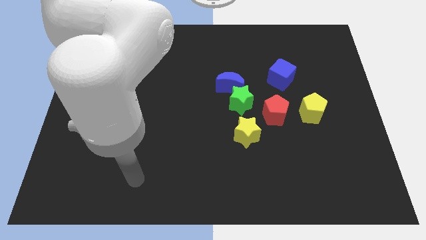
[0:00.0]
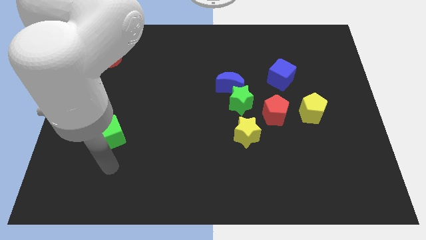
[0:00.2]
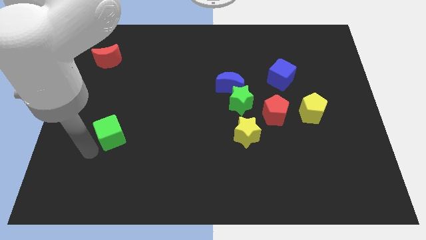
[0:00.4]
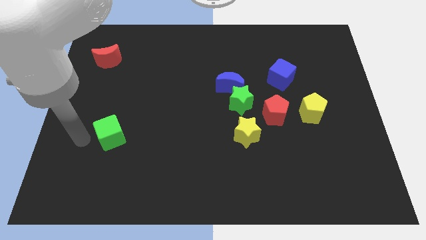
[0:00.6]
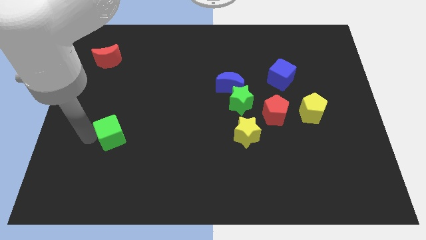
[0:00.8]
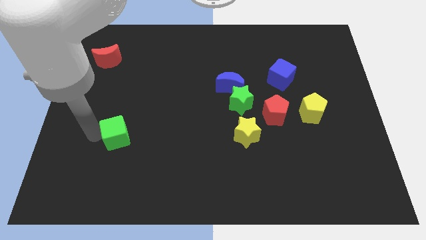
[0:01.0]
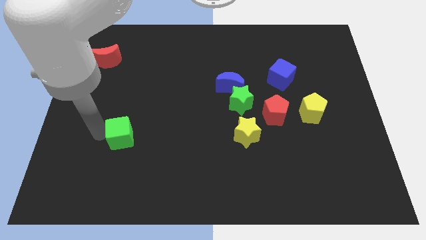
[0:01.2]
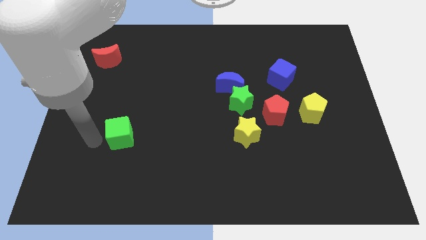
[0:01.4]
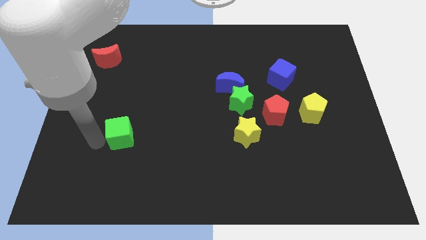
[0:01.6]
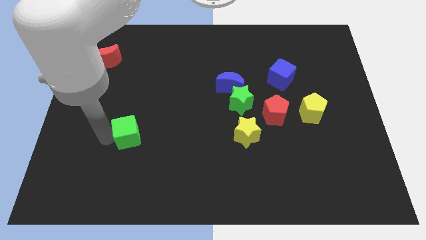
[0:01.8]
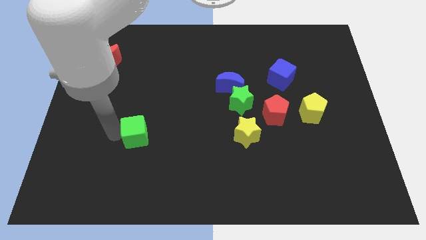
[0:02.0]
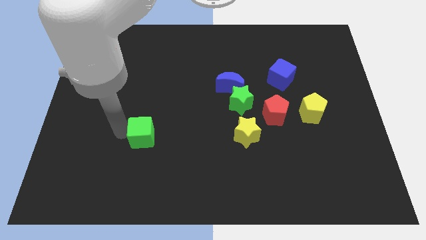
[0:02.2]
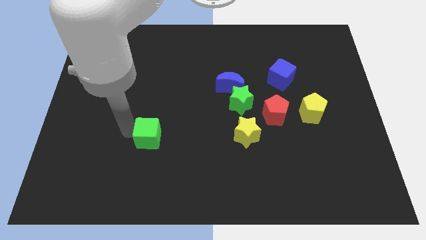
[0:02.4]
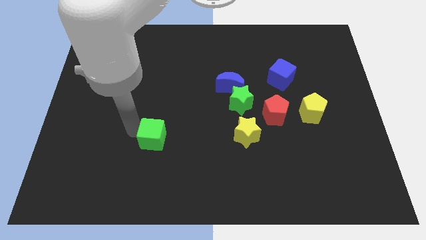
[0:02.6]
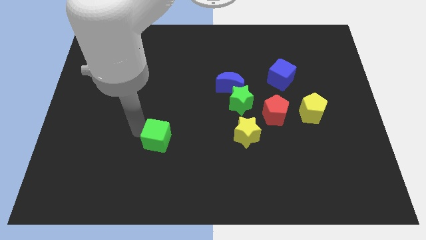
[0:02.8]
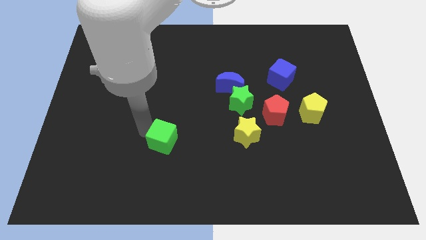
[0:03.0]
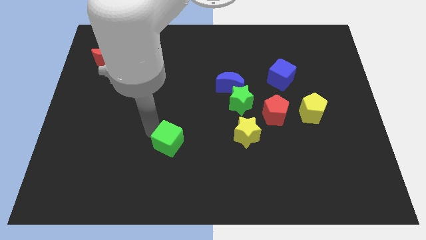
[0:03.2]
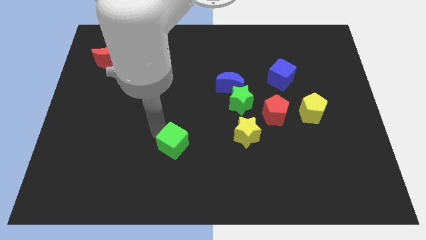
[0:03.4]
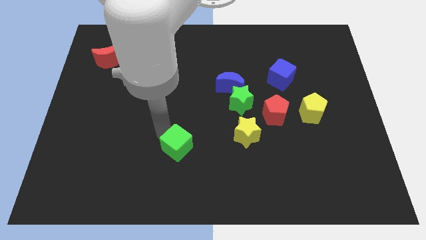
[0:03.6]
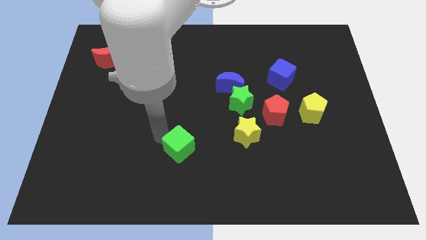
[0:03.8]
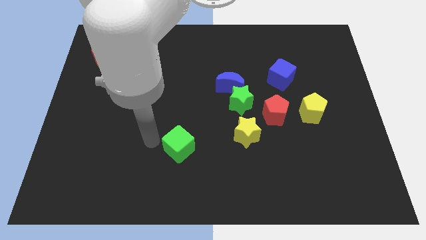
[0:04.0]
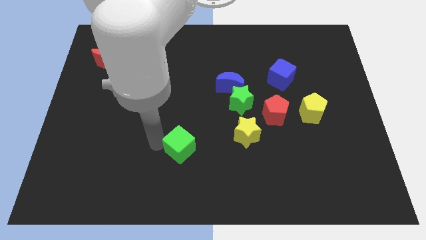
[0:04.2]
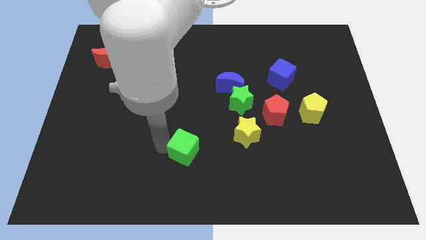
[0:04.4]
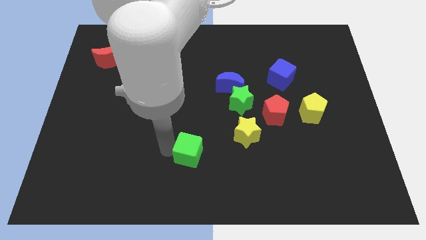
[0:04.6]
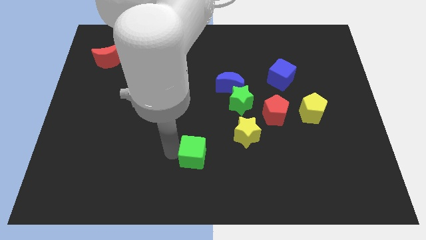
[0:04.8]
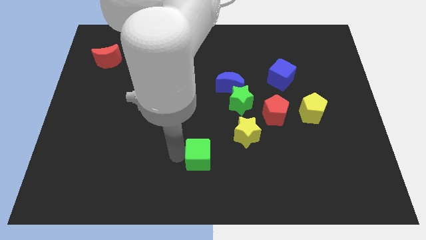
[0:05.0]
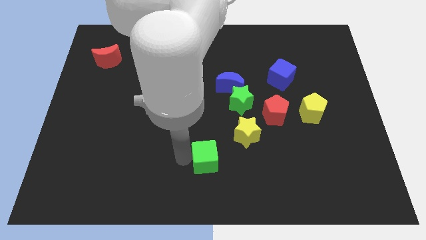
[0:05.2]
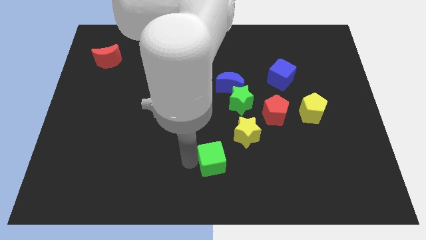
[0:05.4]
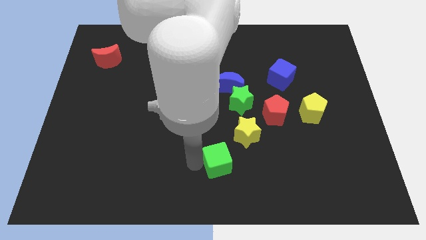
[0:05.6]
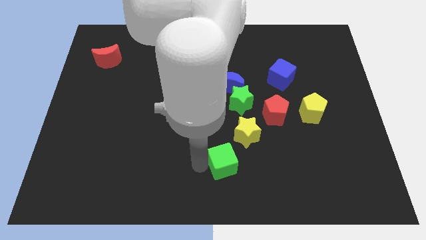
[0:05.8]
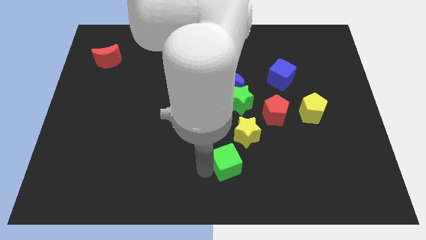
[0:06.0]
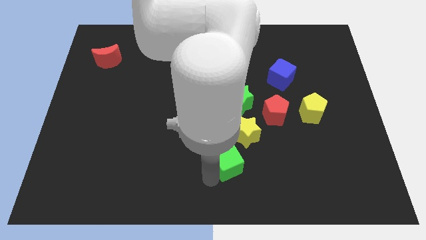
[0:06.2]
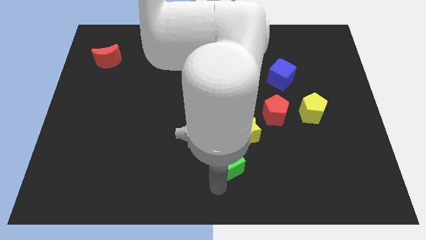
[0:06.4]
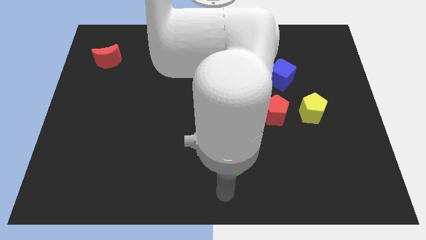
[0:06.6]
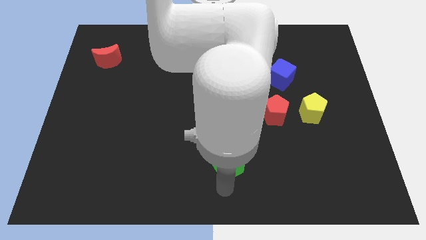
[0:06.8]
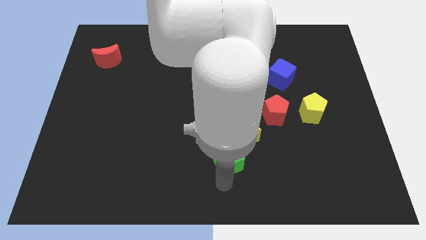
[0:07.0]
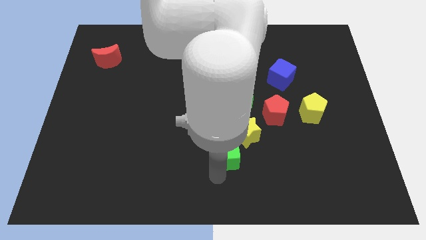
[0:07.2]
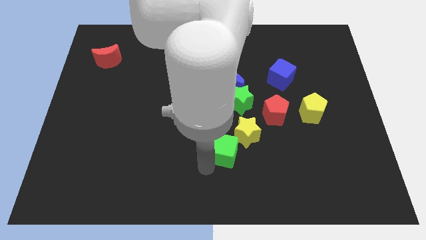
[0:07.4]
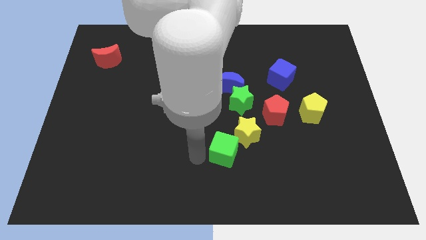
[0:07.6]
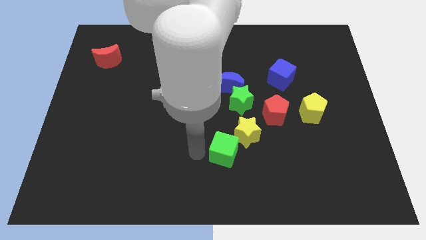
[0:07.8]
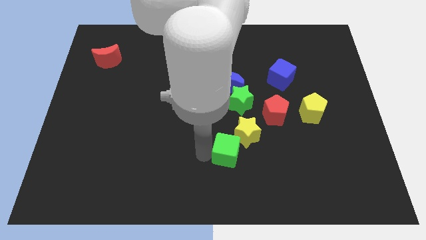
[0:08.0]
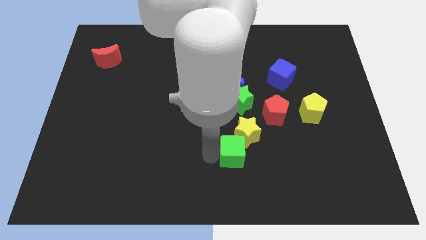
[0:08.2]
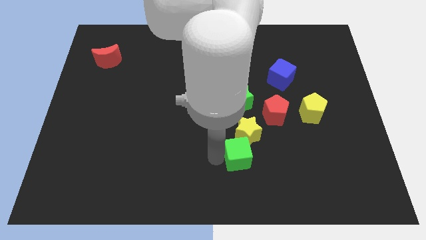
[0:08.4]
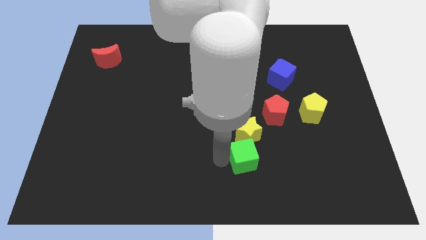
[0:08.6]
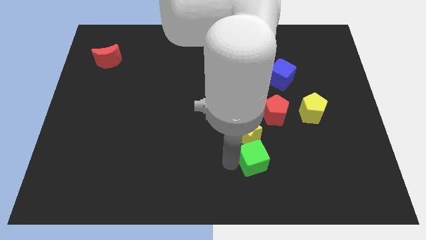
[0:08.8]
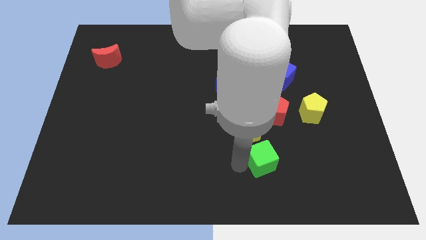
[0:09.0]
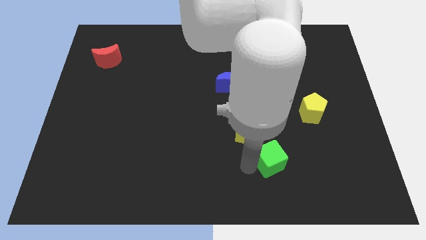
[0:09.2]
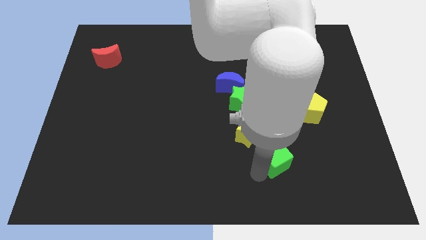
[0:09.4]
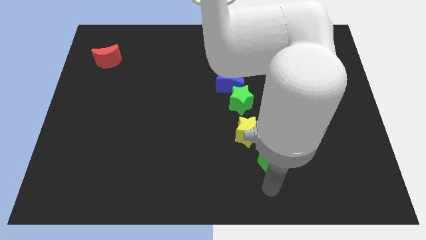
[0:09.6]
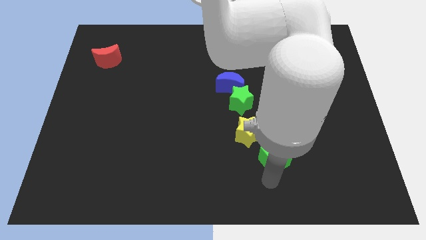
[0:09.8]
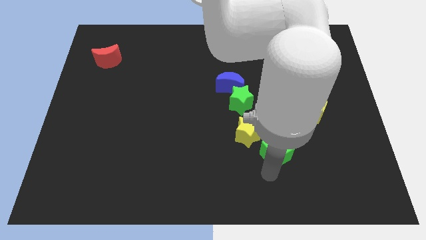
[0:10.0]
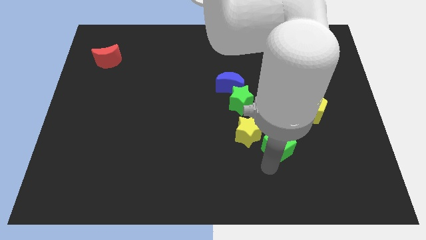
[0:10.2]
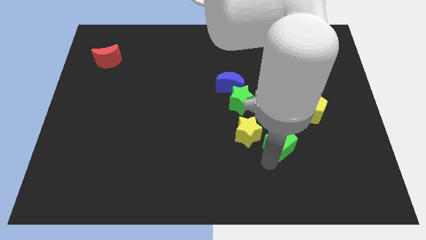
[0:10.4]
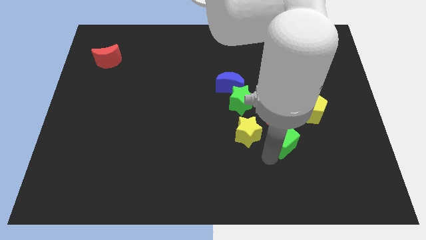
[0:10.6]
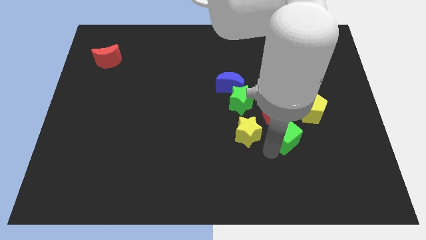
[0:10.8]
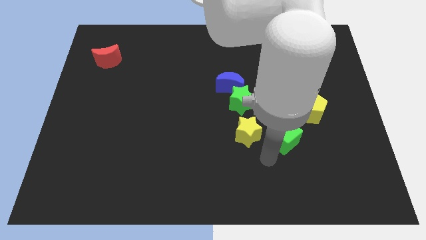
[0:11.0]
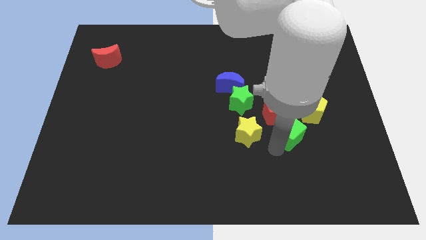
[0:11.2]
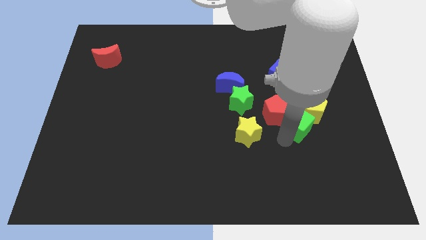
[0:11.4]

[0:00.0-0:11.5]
put the green cube towards the yellow pentagon
